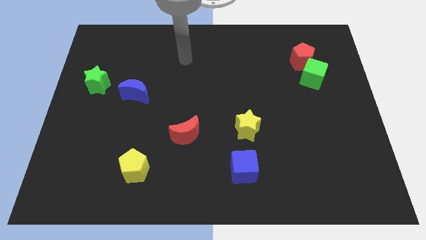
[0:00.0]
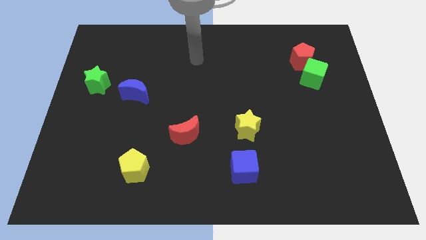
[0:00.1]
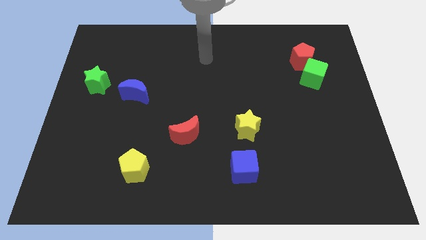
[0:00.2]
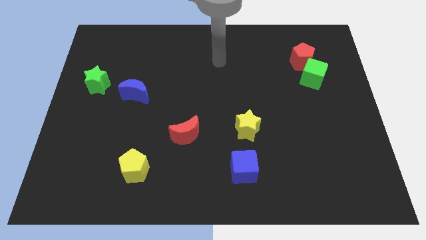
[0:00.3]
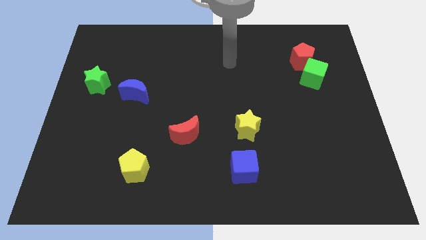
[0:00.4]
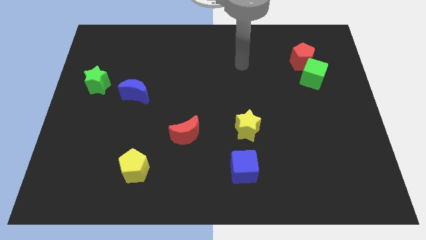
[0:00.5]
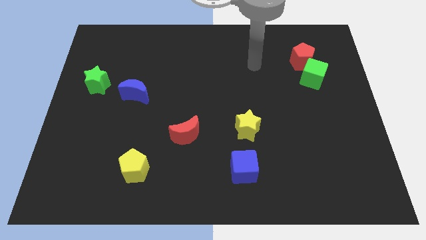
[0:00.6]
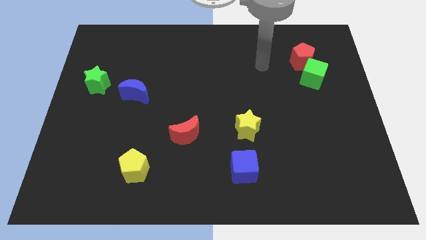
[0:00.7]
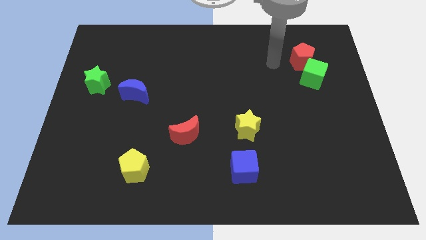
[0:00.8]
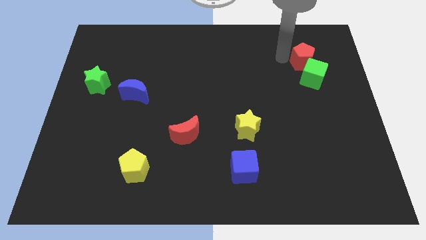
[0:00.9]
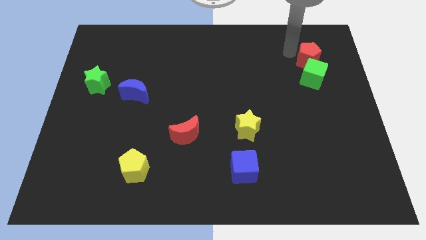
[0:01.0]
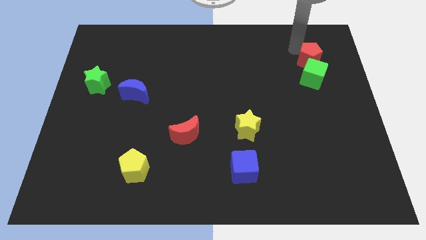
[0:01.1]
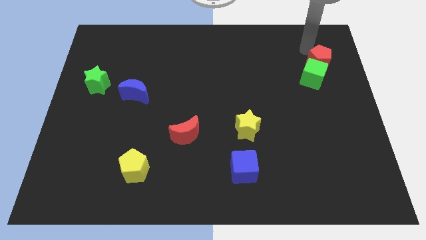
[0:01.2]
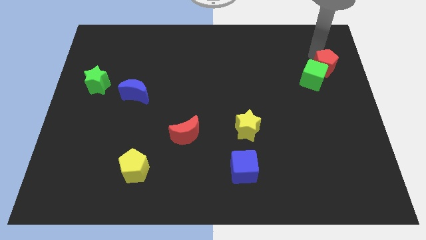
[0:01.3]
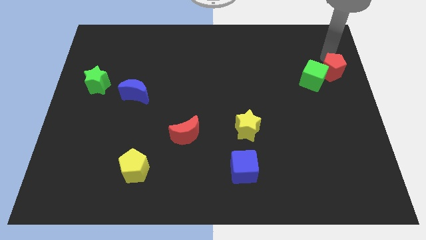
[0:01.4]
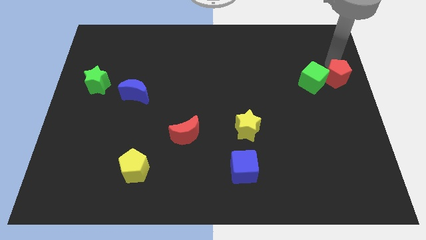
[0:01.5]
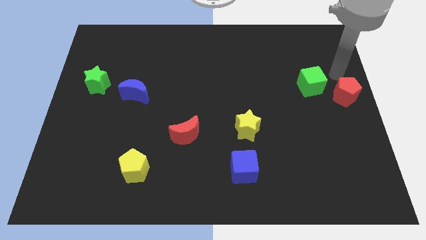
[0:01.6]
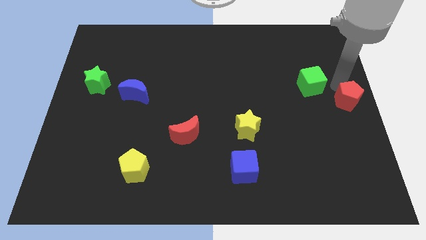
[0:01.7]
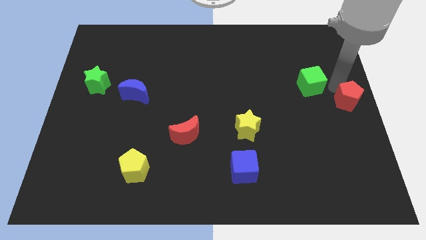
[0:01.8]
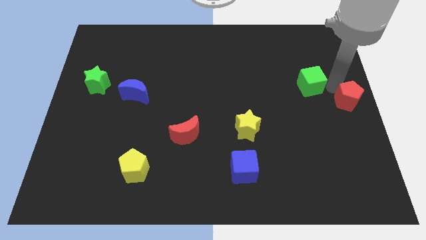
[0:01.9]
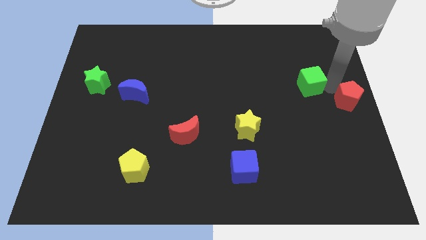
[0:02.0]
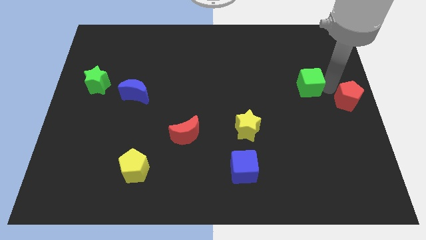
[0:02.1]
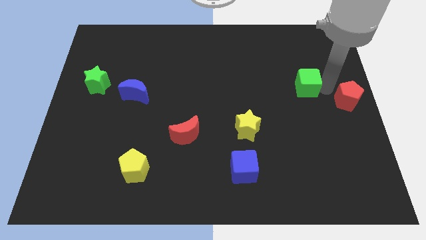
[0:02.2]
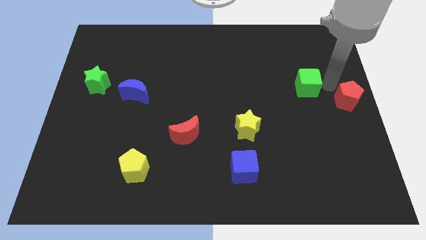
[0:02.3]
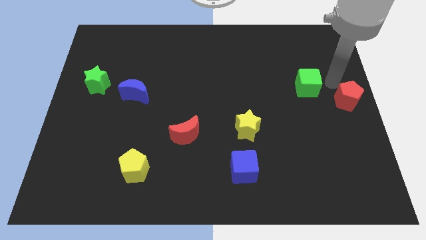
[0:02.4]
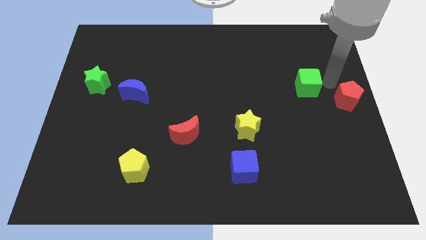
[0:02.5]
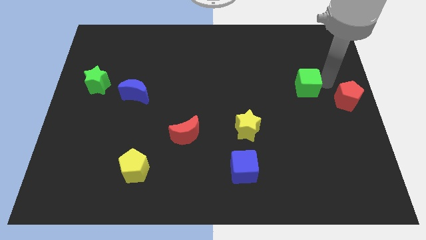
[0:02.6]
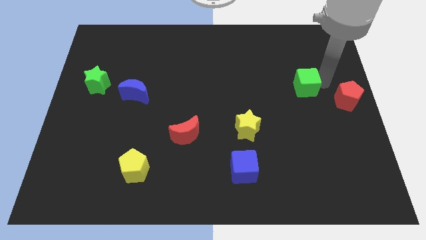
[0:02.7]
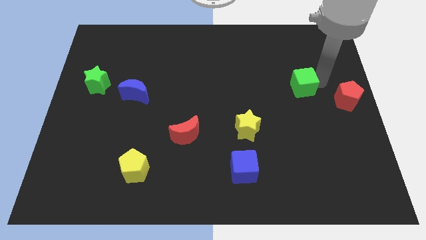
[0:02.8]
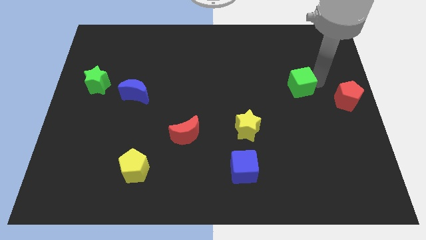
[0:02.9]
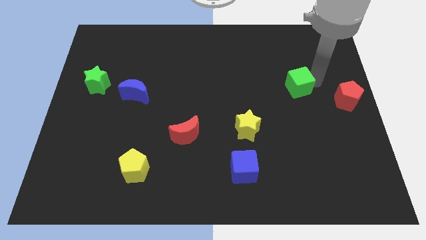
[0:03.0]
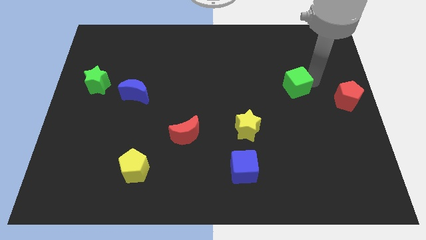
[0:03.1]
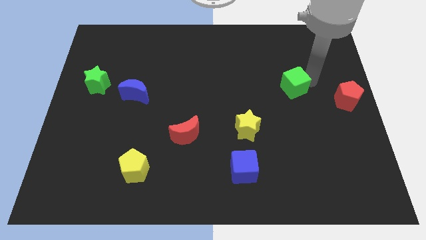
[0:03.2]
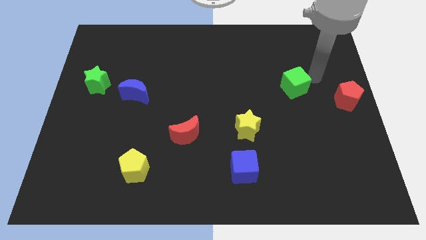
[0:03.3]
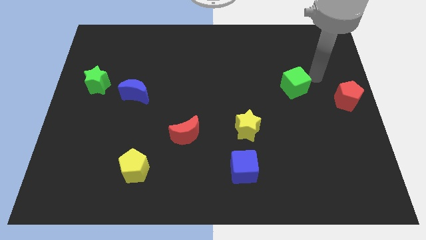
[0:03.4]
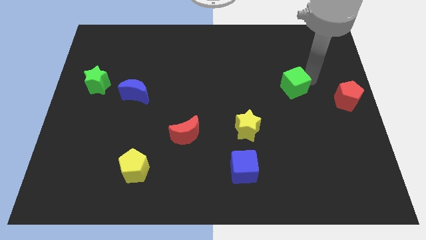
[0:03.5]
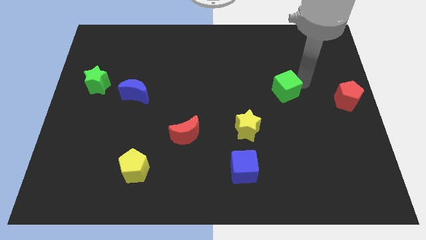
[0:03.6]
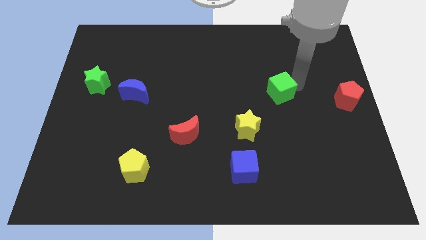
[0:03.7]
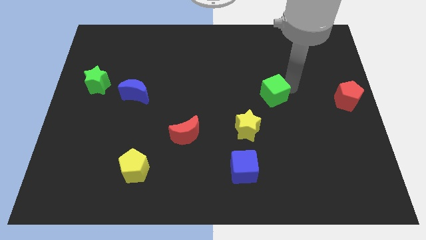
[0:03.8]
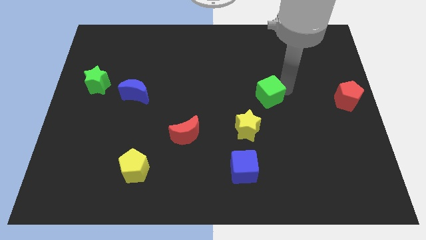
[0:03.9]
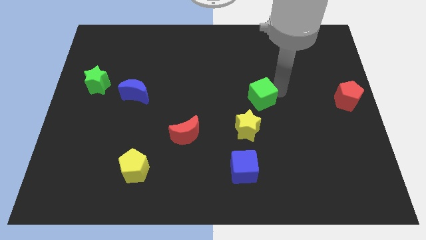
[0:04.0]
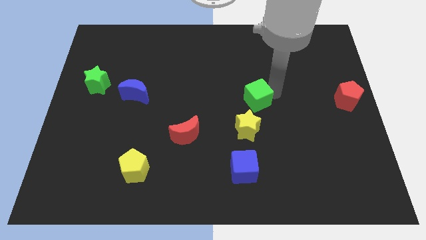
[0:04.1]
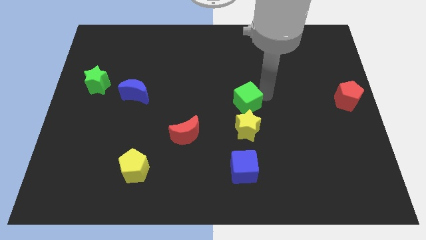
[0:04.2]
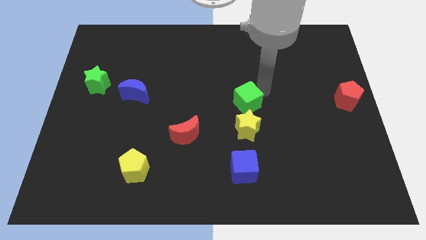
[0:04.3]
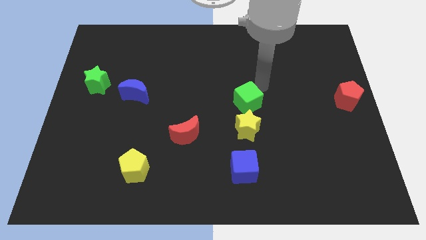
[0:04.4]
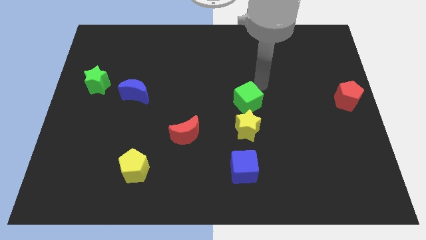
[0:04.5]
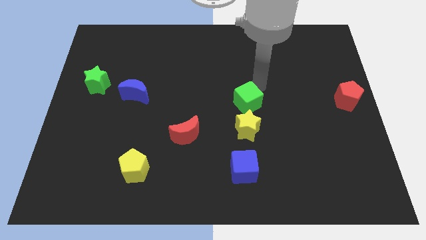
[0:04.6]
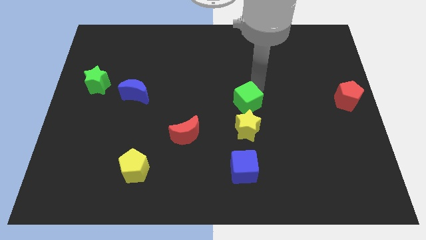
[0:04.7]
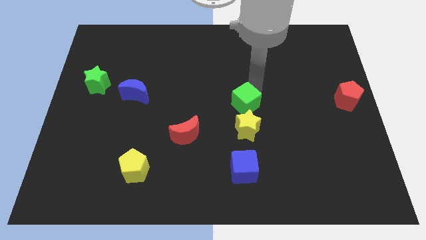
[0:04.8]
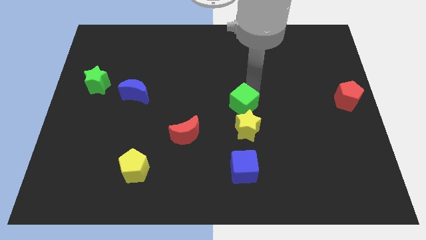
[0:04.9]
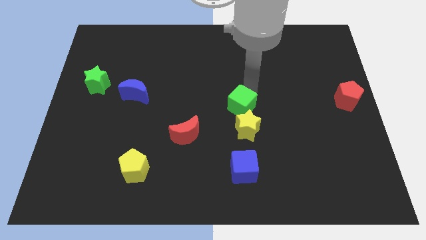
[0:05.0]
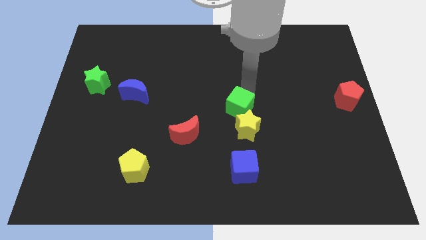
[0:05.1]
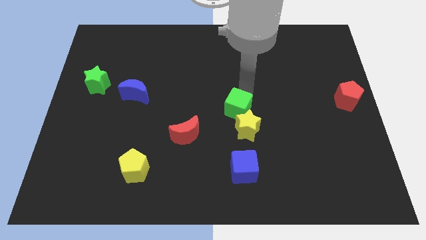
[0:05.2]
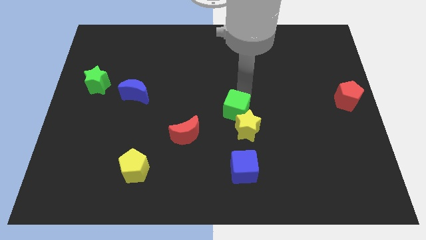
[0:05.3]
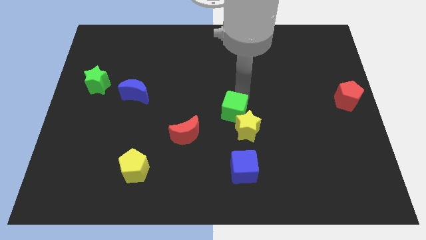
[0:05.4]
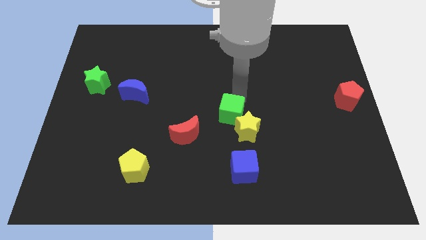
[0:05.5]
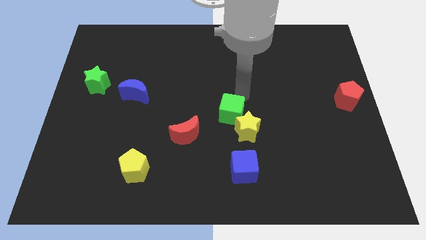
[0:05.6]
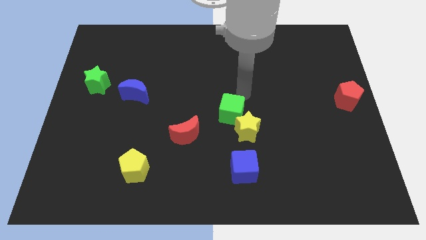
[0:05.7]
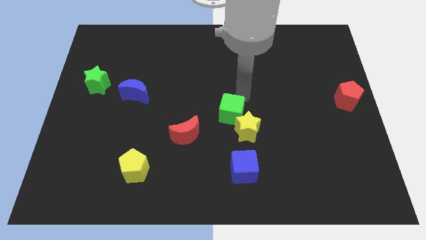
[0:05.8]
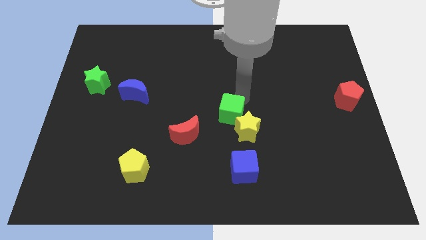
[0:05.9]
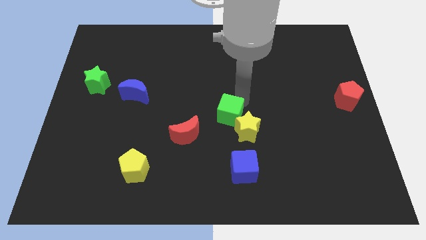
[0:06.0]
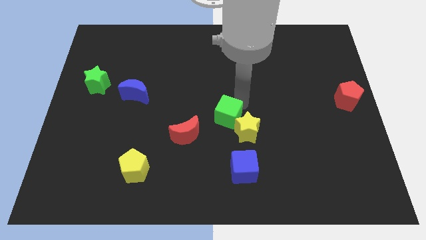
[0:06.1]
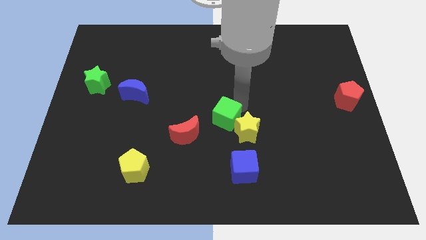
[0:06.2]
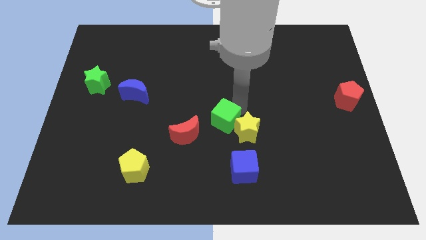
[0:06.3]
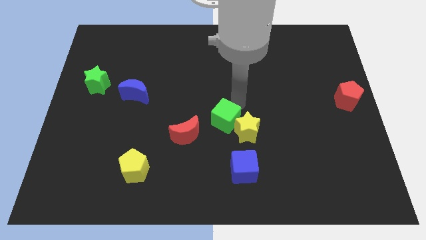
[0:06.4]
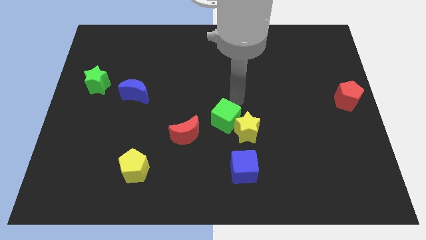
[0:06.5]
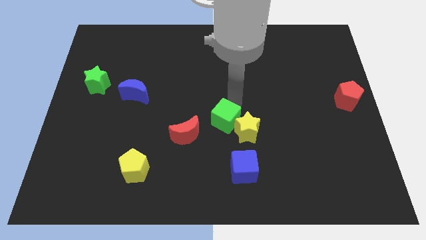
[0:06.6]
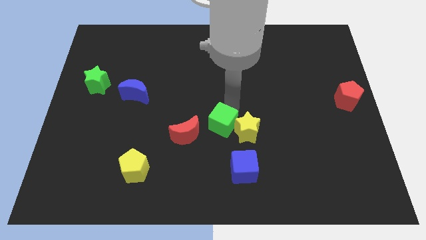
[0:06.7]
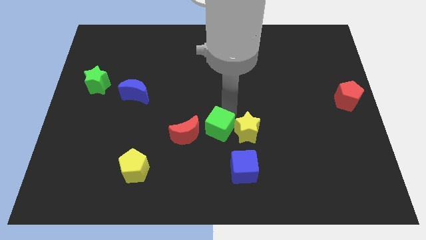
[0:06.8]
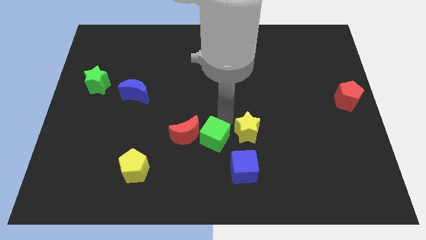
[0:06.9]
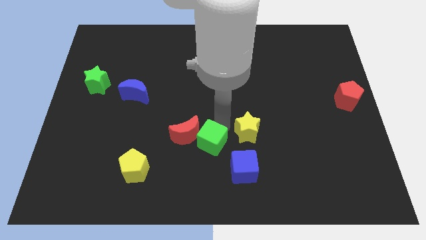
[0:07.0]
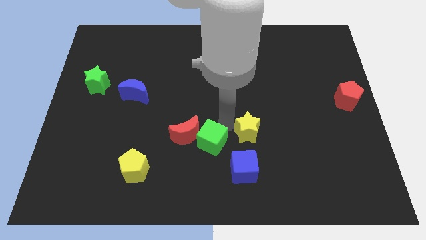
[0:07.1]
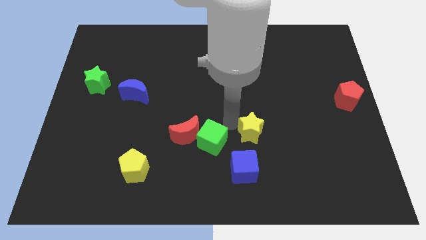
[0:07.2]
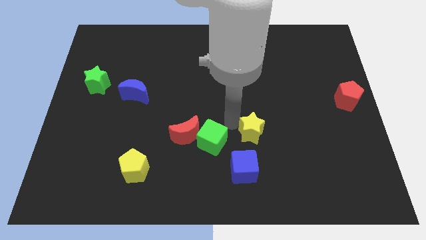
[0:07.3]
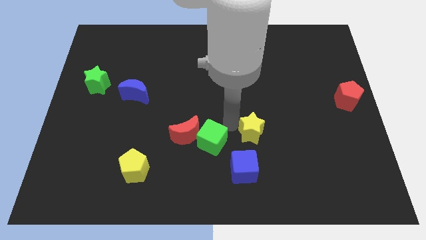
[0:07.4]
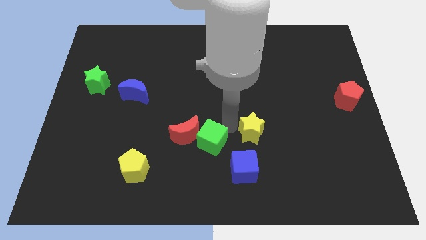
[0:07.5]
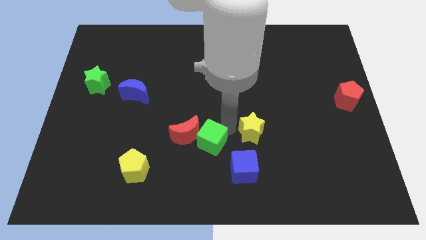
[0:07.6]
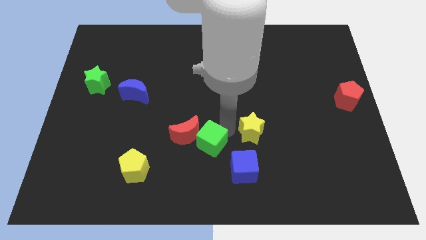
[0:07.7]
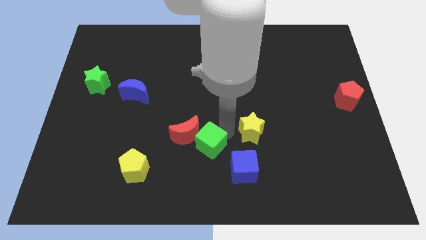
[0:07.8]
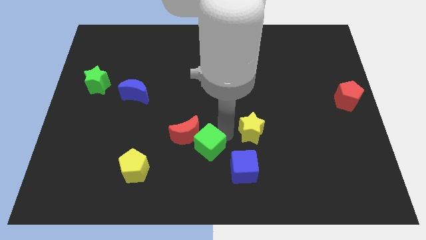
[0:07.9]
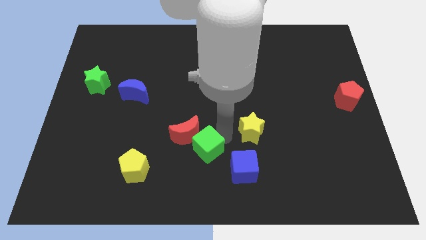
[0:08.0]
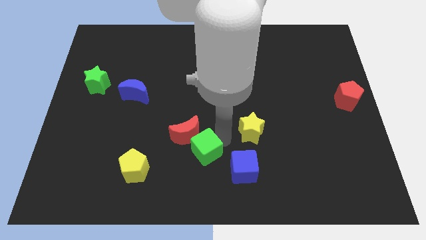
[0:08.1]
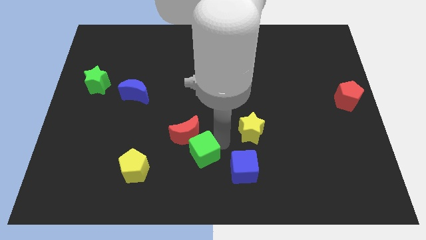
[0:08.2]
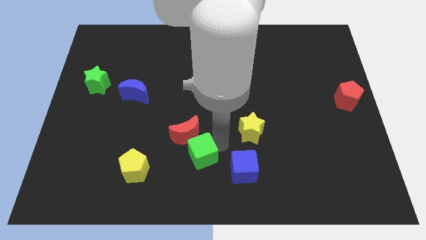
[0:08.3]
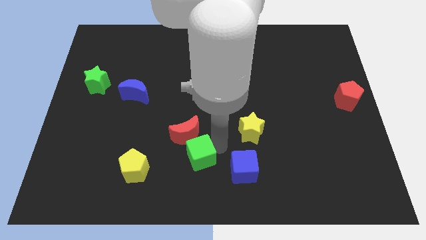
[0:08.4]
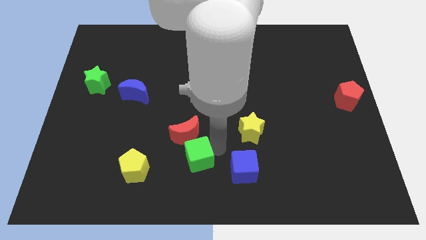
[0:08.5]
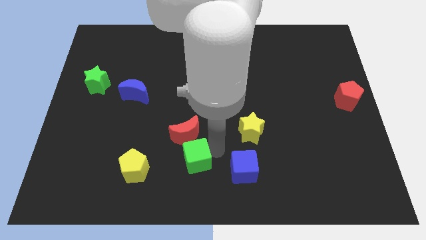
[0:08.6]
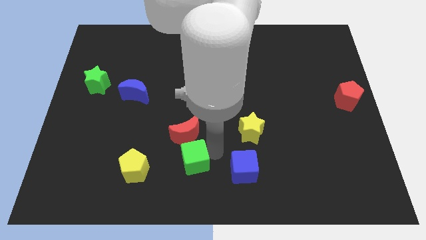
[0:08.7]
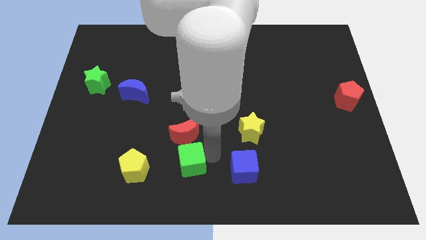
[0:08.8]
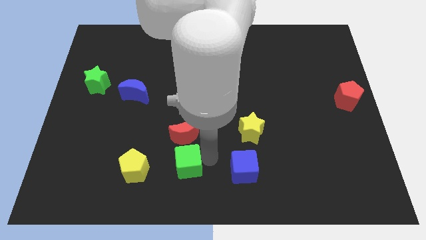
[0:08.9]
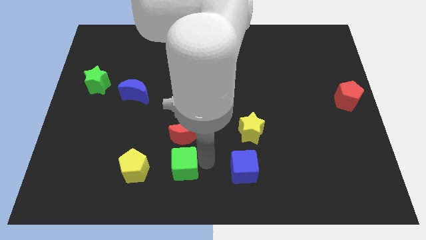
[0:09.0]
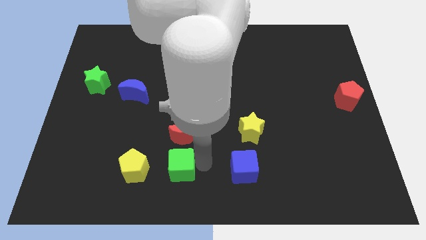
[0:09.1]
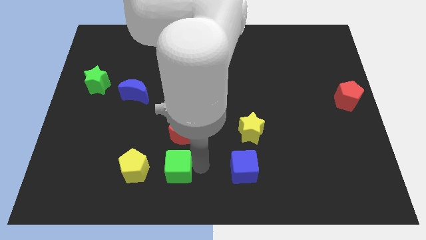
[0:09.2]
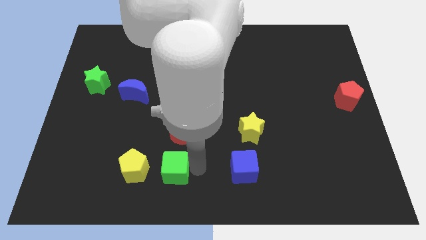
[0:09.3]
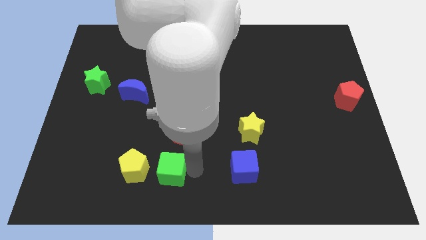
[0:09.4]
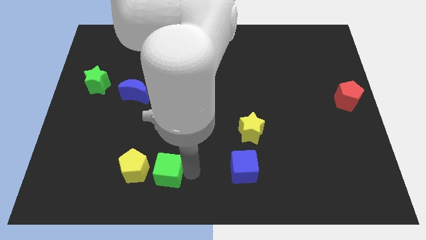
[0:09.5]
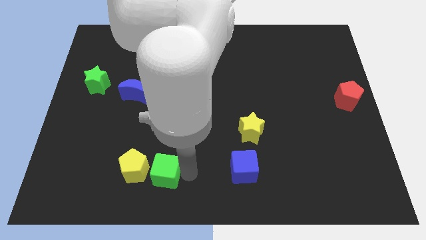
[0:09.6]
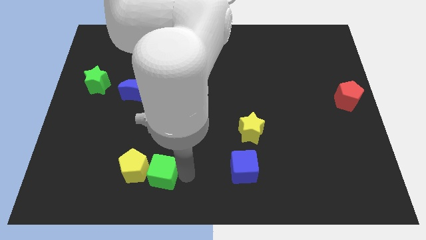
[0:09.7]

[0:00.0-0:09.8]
push the green cube close to the yellow pentagon
